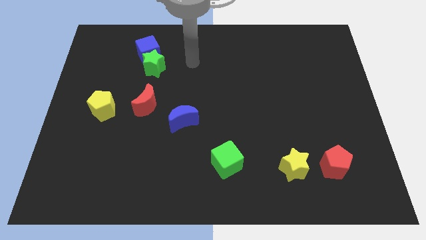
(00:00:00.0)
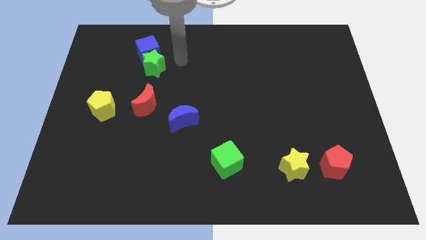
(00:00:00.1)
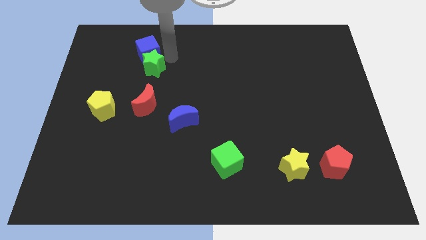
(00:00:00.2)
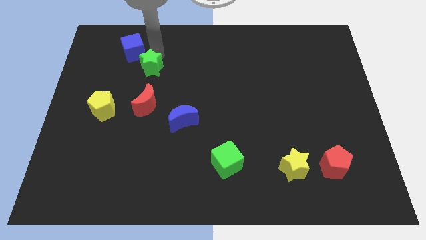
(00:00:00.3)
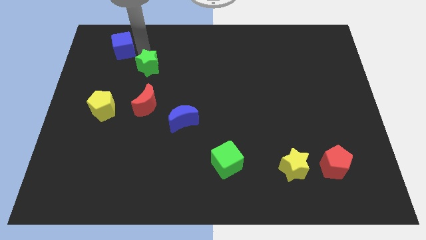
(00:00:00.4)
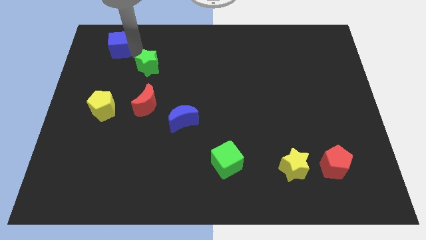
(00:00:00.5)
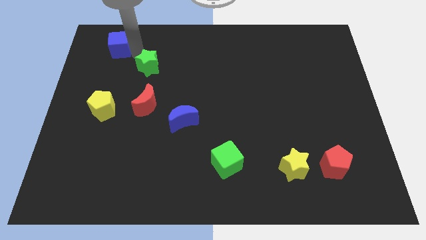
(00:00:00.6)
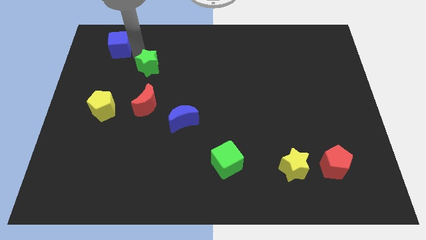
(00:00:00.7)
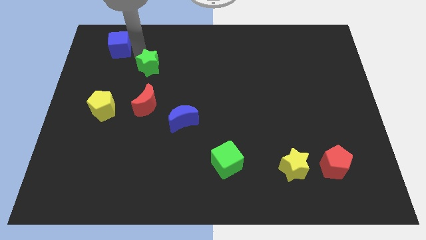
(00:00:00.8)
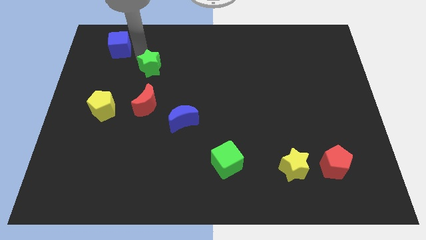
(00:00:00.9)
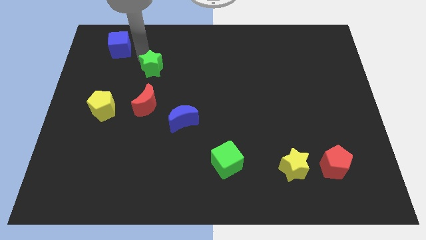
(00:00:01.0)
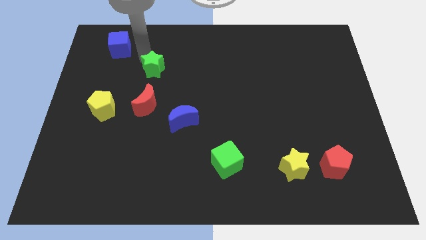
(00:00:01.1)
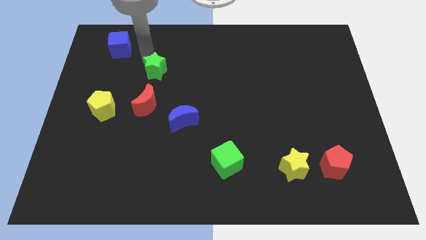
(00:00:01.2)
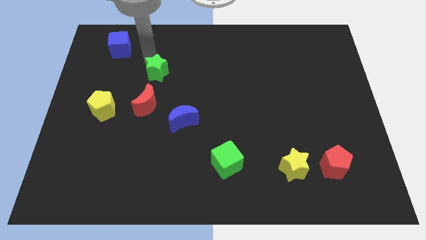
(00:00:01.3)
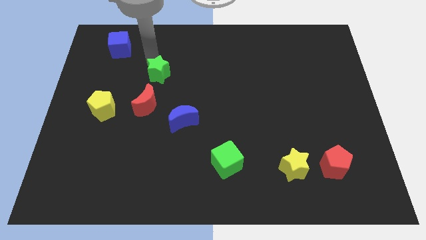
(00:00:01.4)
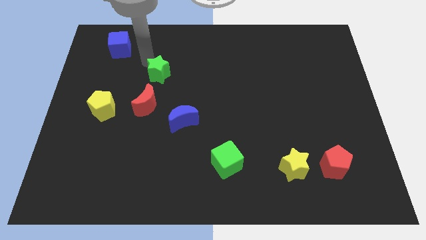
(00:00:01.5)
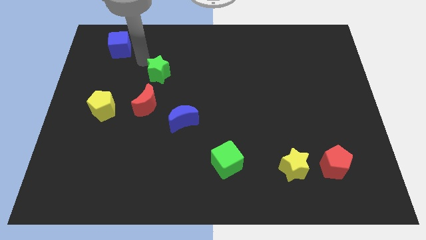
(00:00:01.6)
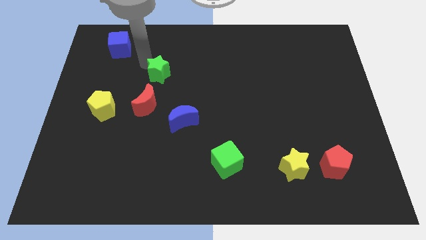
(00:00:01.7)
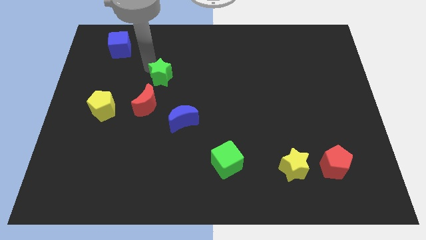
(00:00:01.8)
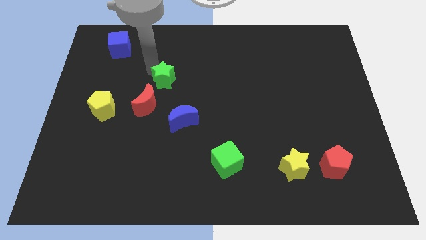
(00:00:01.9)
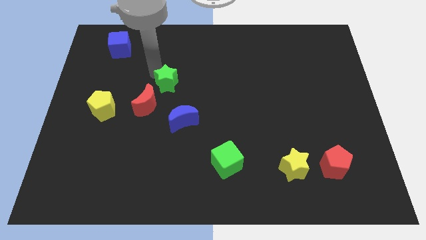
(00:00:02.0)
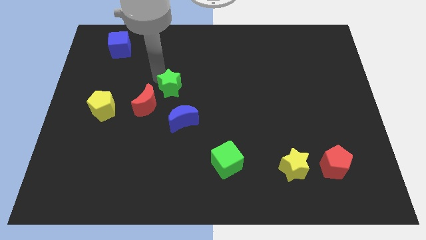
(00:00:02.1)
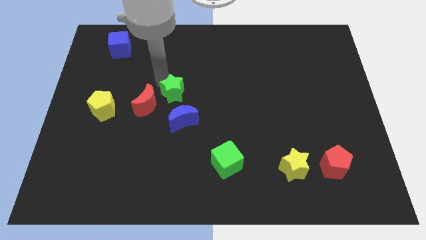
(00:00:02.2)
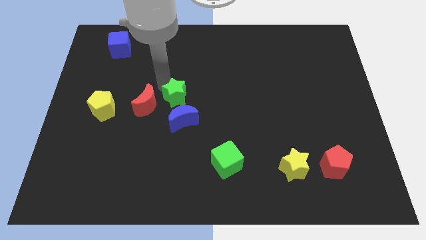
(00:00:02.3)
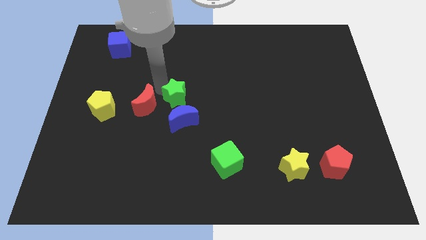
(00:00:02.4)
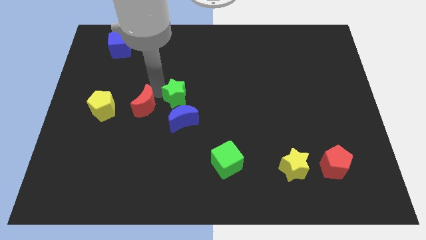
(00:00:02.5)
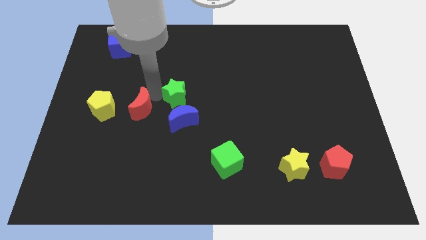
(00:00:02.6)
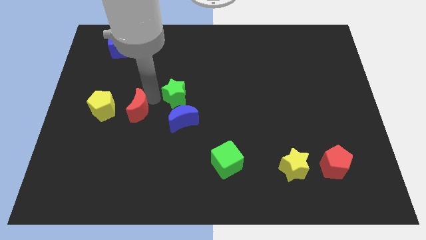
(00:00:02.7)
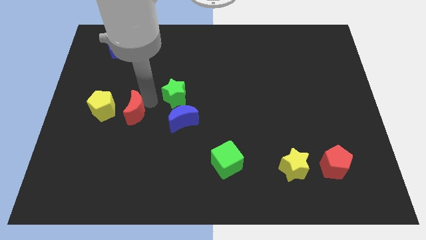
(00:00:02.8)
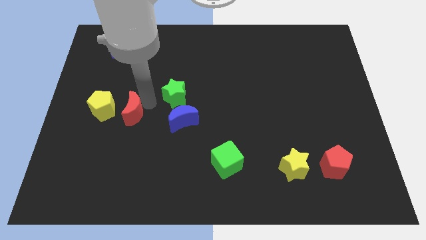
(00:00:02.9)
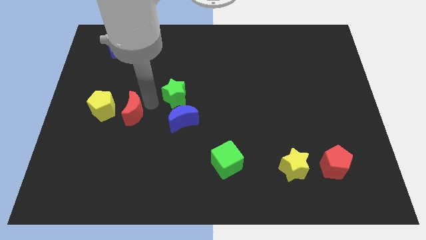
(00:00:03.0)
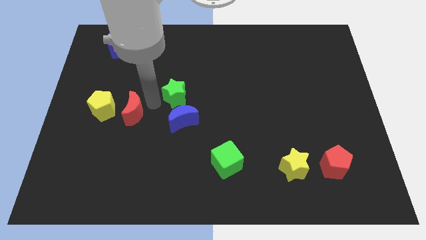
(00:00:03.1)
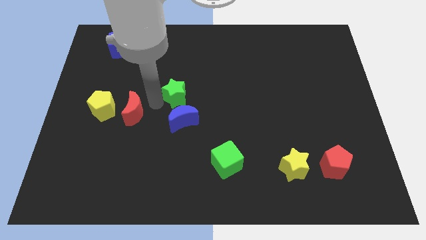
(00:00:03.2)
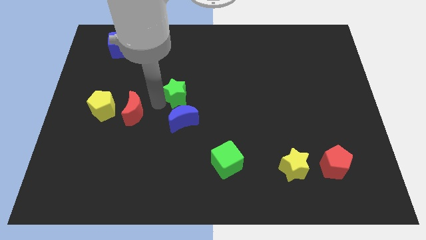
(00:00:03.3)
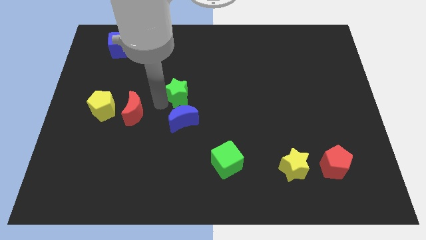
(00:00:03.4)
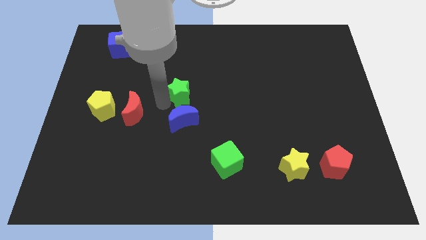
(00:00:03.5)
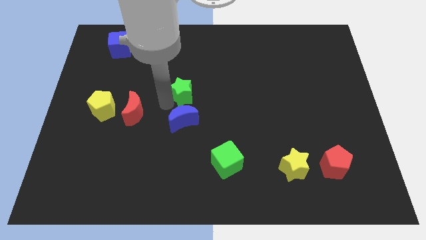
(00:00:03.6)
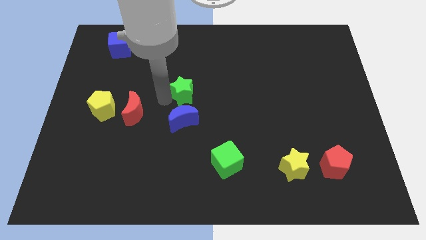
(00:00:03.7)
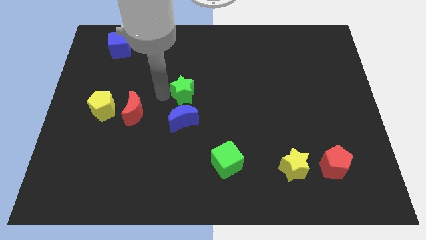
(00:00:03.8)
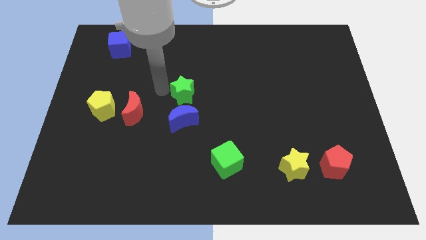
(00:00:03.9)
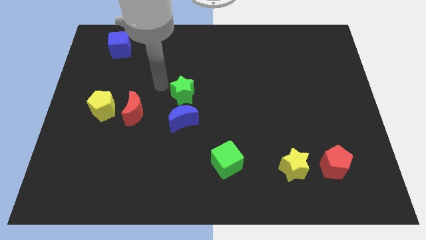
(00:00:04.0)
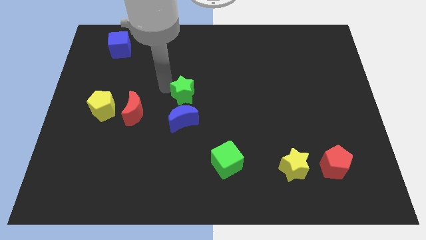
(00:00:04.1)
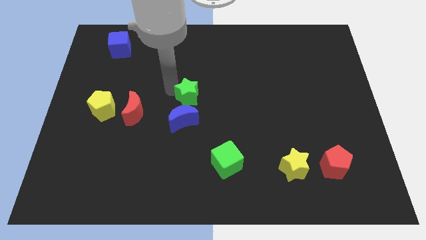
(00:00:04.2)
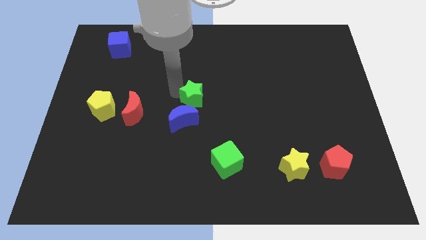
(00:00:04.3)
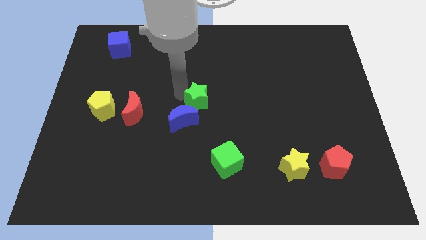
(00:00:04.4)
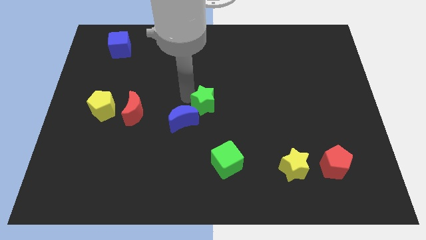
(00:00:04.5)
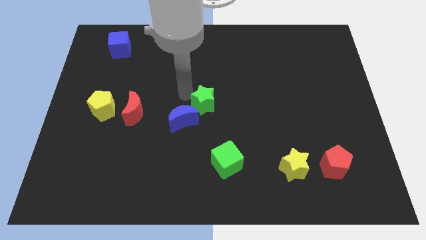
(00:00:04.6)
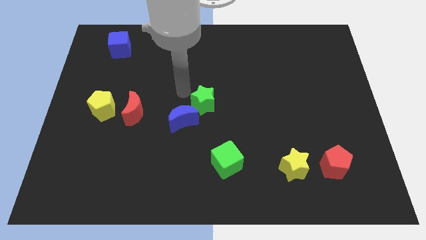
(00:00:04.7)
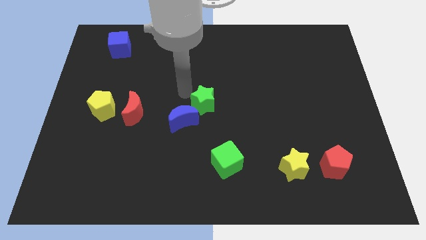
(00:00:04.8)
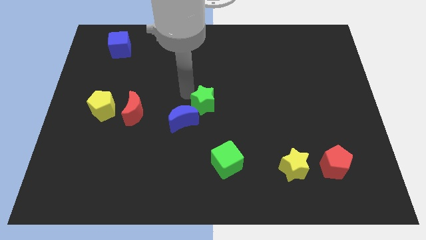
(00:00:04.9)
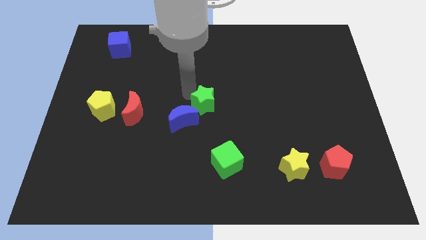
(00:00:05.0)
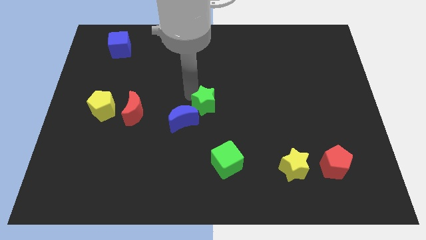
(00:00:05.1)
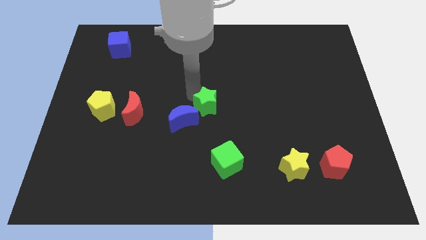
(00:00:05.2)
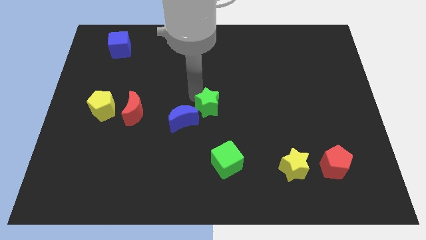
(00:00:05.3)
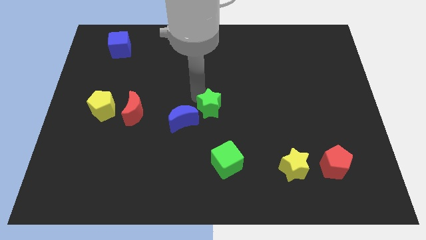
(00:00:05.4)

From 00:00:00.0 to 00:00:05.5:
slide the green star down and right

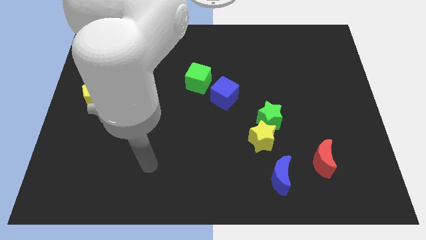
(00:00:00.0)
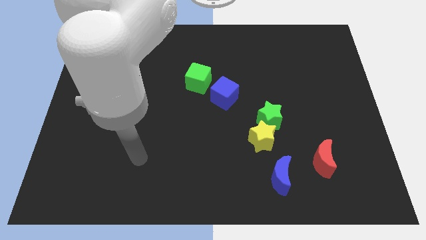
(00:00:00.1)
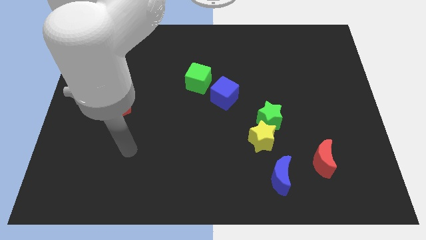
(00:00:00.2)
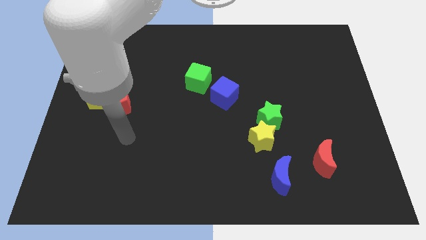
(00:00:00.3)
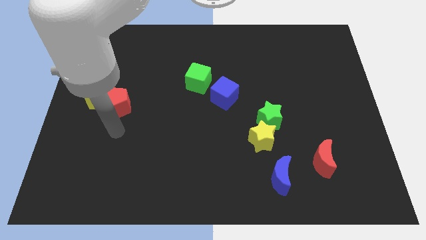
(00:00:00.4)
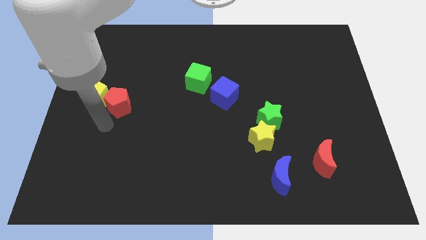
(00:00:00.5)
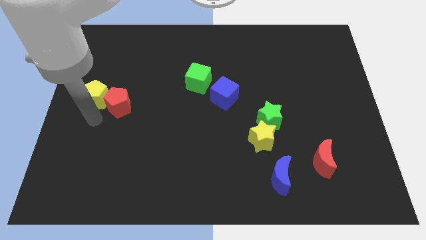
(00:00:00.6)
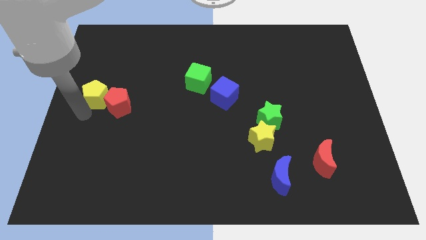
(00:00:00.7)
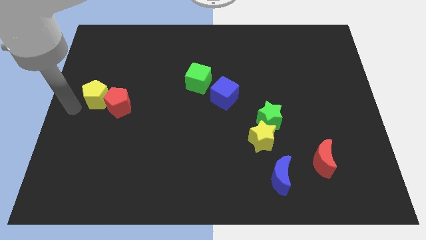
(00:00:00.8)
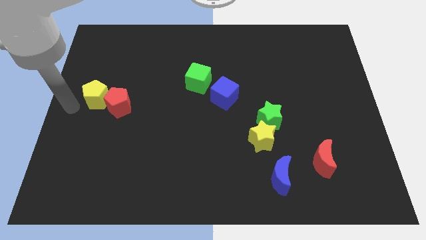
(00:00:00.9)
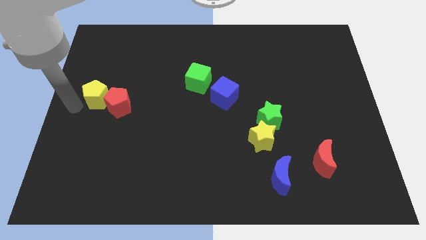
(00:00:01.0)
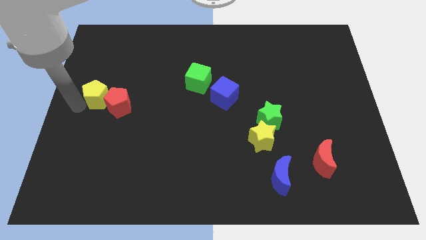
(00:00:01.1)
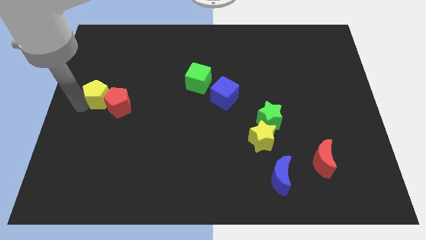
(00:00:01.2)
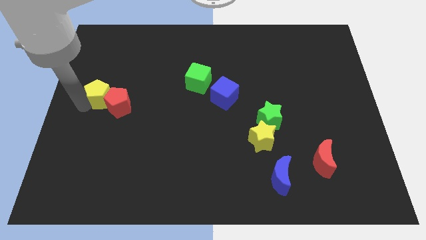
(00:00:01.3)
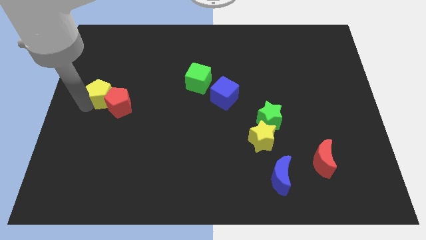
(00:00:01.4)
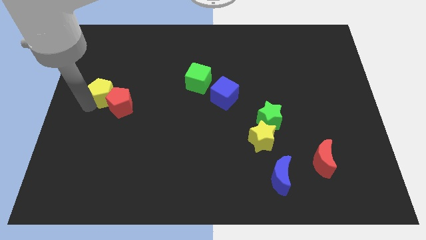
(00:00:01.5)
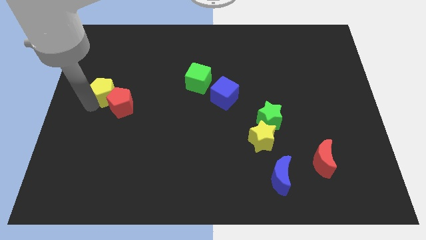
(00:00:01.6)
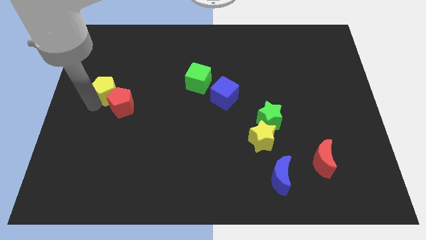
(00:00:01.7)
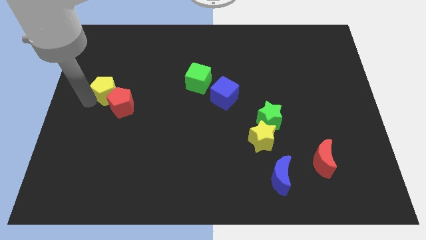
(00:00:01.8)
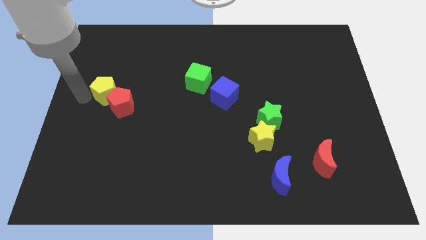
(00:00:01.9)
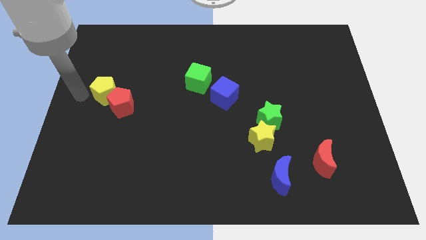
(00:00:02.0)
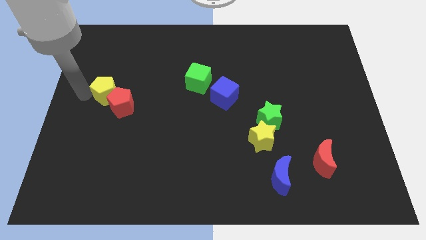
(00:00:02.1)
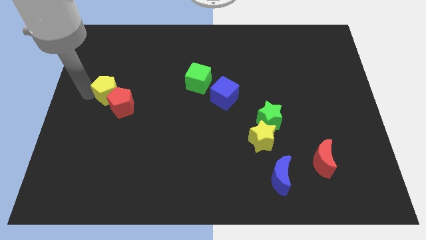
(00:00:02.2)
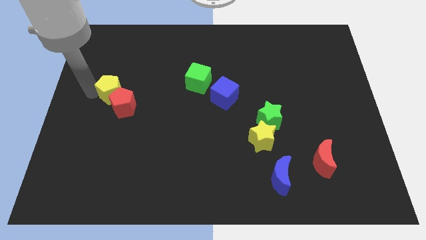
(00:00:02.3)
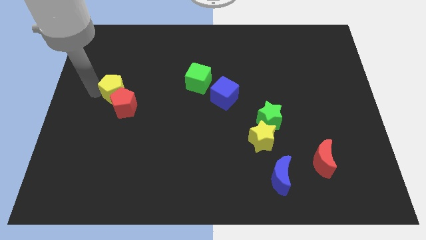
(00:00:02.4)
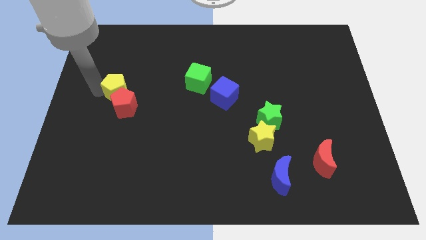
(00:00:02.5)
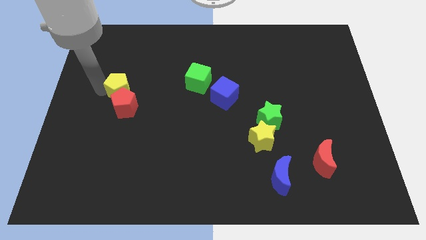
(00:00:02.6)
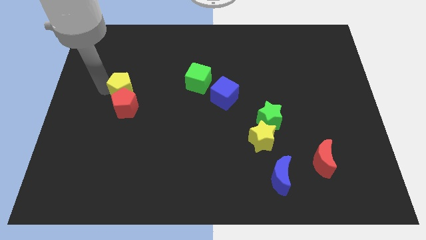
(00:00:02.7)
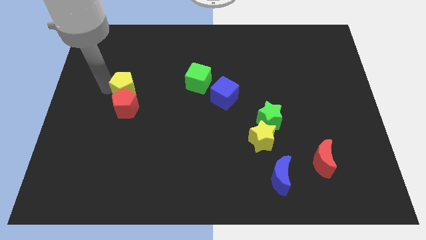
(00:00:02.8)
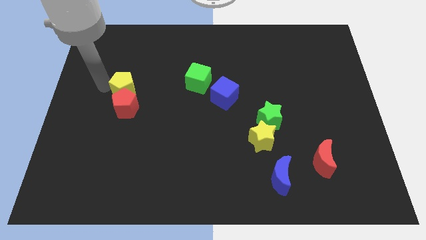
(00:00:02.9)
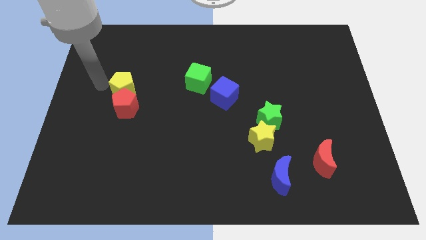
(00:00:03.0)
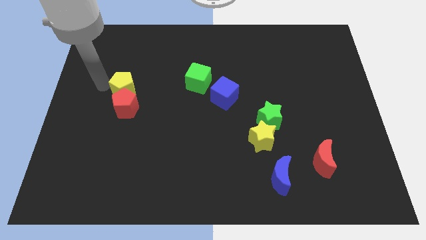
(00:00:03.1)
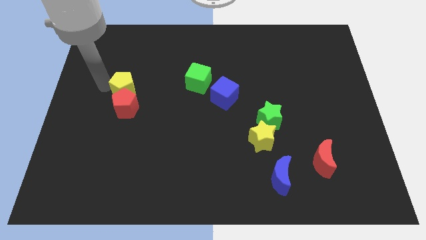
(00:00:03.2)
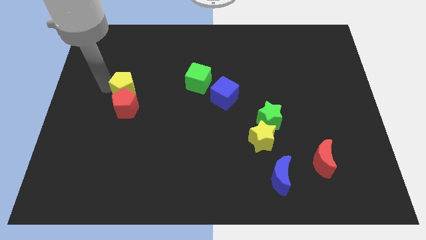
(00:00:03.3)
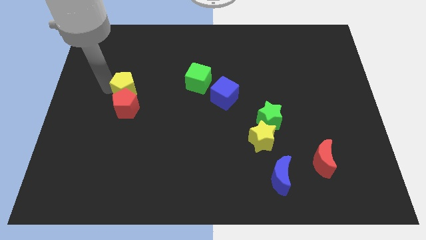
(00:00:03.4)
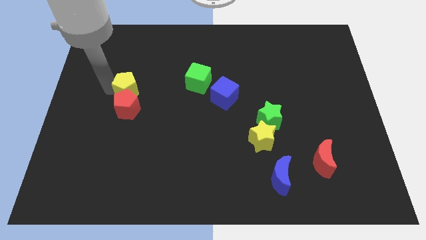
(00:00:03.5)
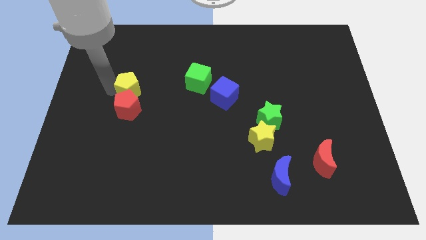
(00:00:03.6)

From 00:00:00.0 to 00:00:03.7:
push the yellow pentagon slightly to the right
